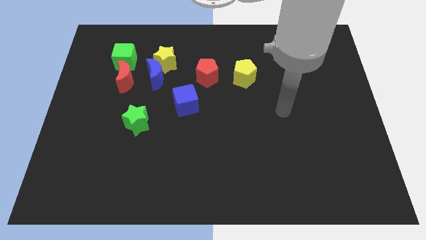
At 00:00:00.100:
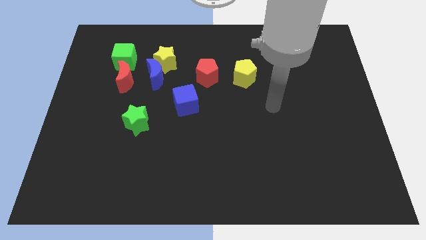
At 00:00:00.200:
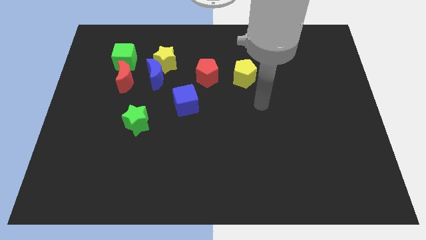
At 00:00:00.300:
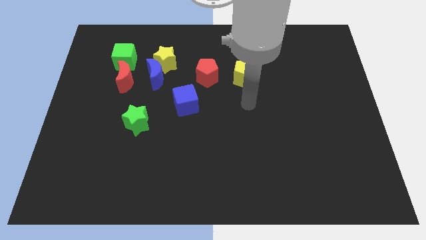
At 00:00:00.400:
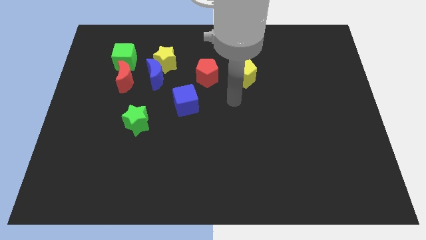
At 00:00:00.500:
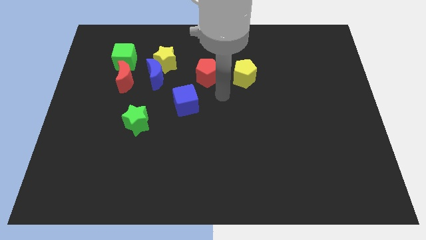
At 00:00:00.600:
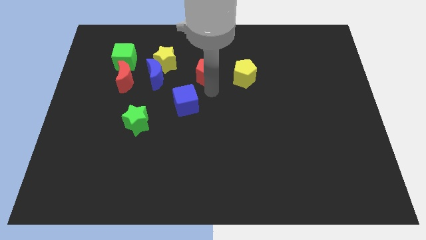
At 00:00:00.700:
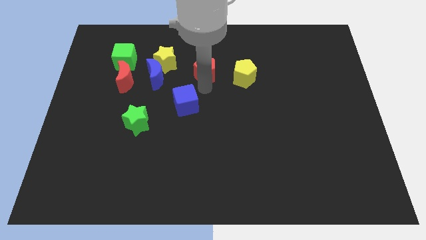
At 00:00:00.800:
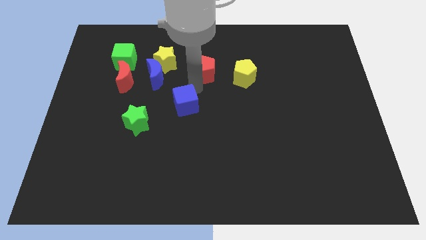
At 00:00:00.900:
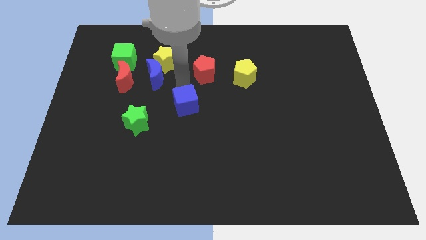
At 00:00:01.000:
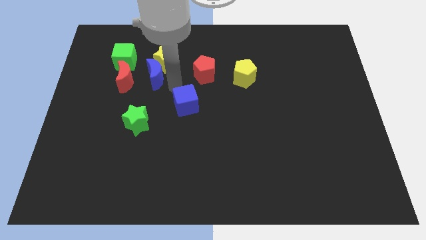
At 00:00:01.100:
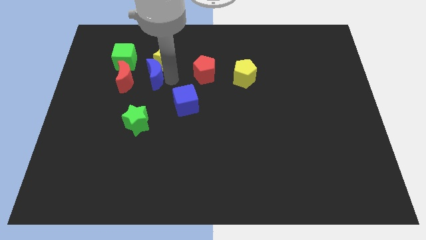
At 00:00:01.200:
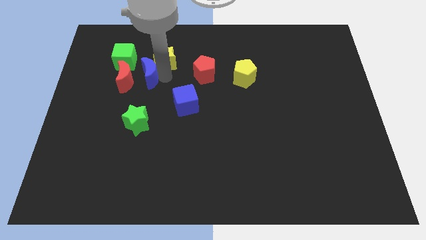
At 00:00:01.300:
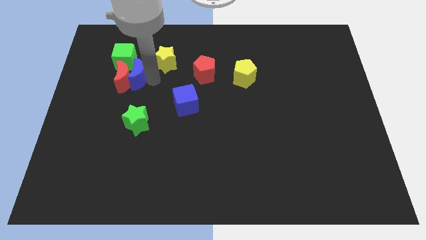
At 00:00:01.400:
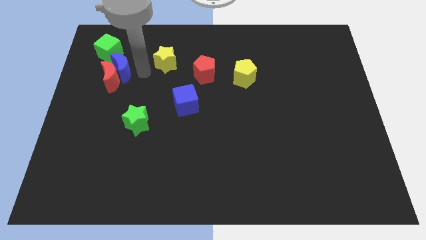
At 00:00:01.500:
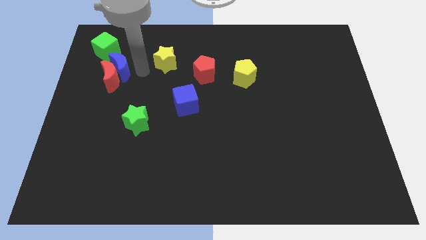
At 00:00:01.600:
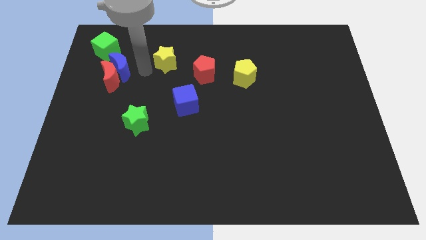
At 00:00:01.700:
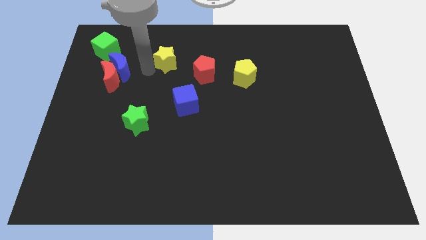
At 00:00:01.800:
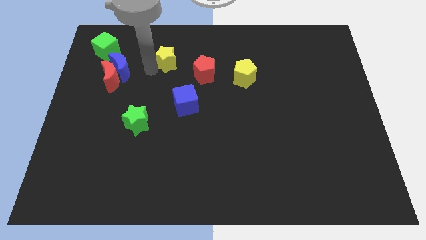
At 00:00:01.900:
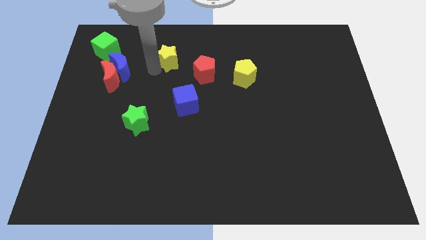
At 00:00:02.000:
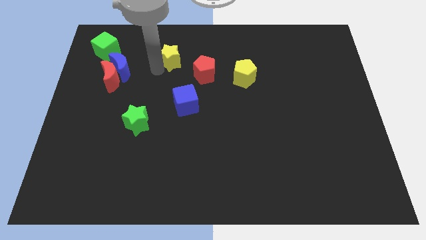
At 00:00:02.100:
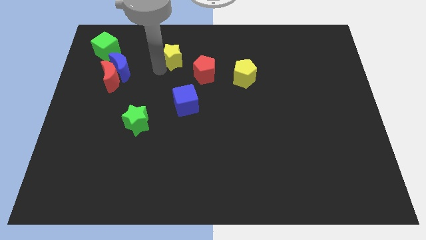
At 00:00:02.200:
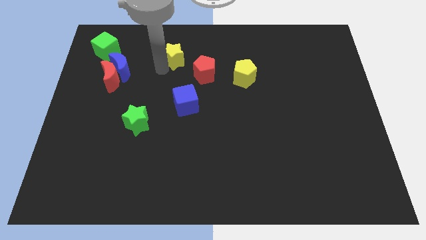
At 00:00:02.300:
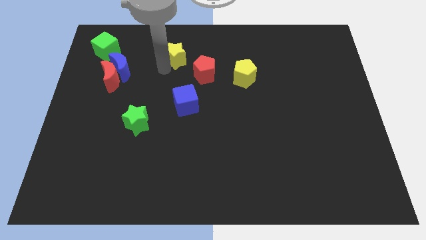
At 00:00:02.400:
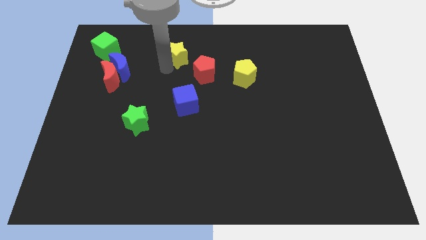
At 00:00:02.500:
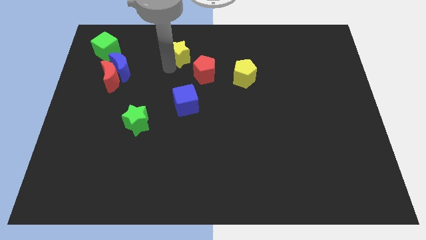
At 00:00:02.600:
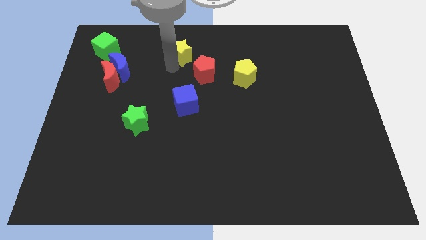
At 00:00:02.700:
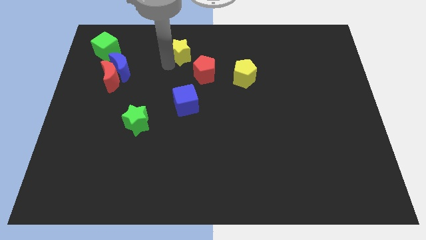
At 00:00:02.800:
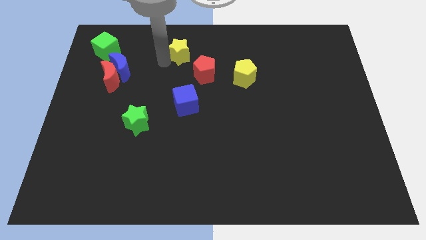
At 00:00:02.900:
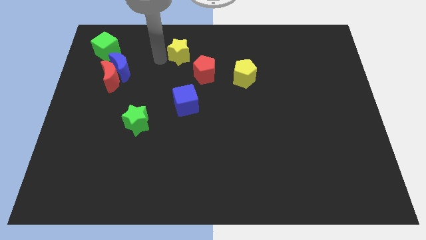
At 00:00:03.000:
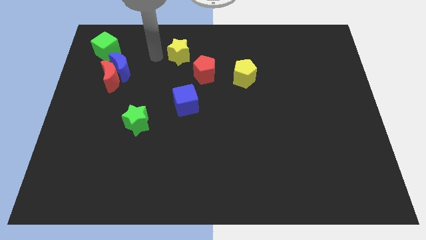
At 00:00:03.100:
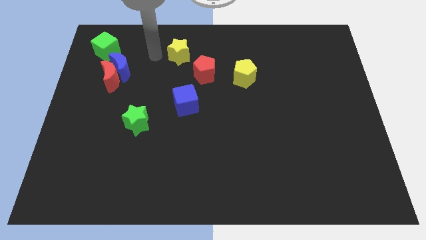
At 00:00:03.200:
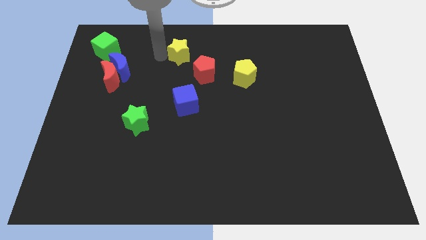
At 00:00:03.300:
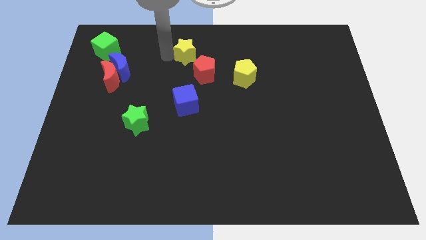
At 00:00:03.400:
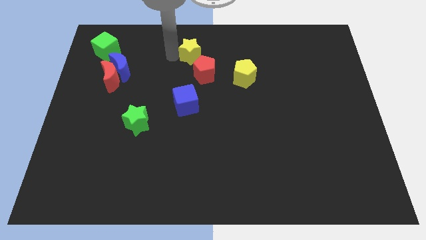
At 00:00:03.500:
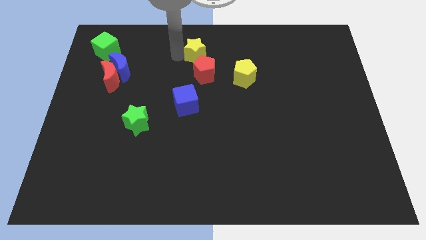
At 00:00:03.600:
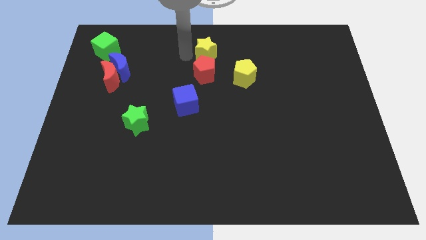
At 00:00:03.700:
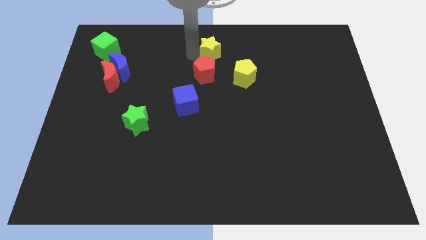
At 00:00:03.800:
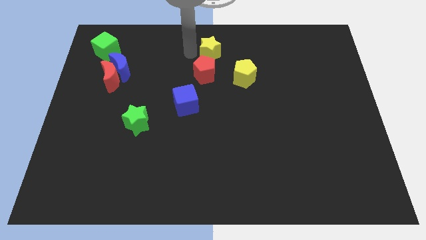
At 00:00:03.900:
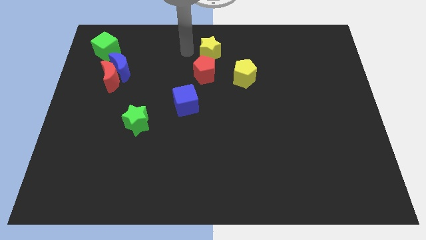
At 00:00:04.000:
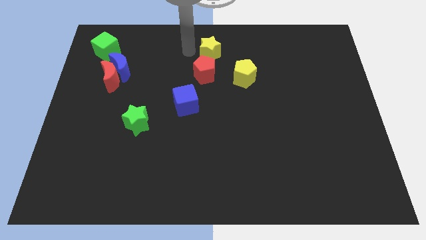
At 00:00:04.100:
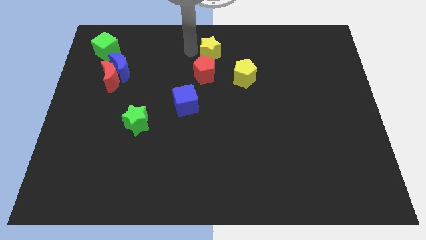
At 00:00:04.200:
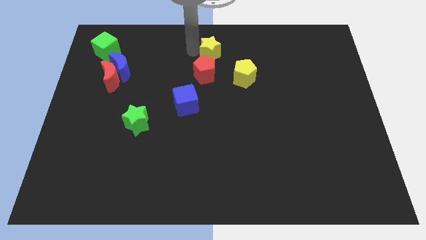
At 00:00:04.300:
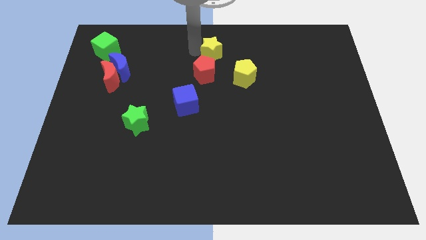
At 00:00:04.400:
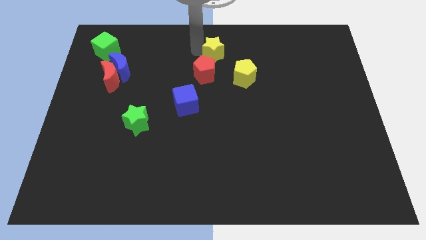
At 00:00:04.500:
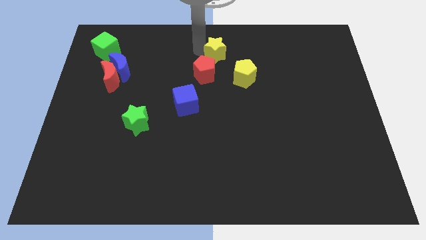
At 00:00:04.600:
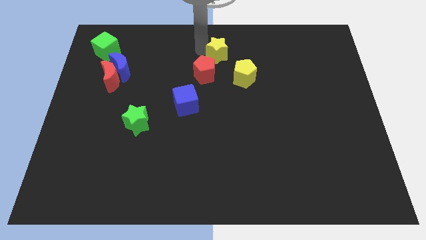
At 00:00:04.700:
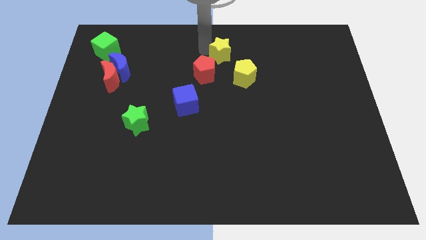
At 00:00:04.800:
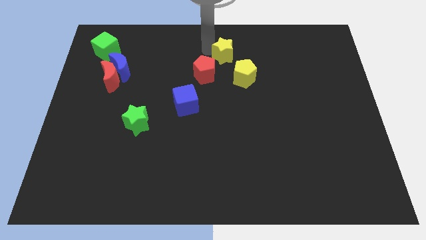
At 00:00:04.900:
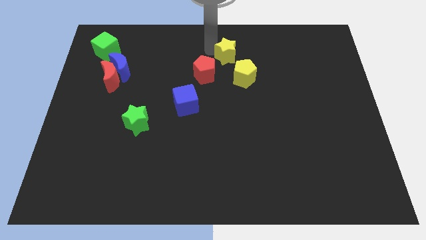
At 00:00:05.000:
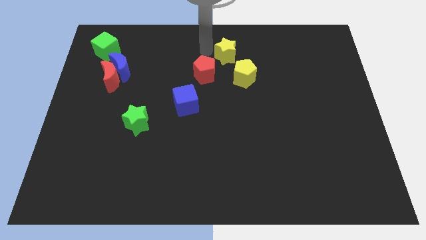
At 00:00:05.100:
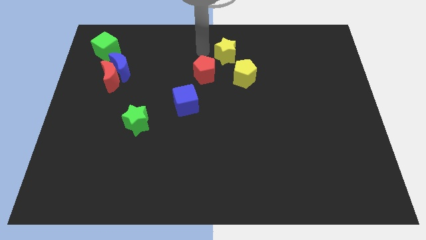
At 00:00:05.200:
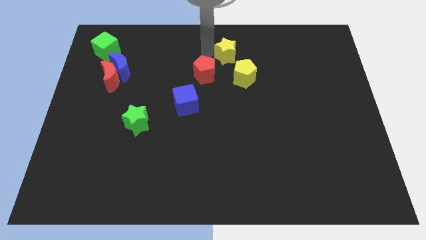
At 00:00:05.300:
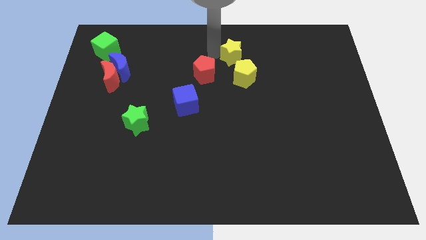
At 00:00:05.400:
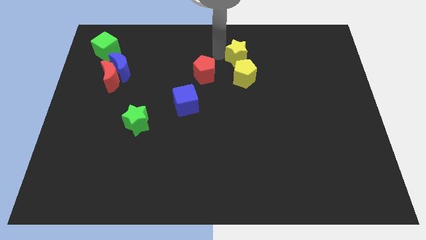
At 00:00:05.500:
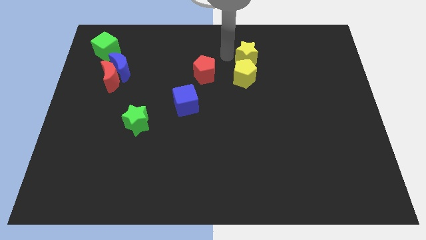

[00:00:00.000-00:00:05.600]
move the yellow star to the right

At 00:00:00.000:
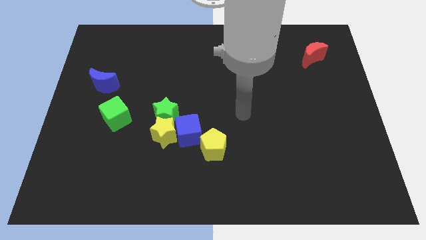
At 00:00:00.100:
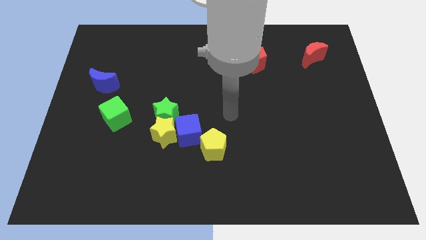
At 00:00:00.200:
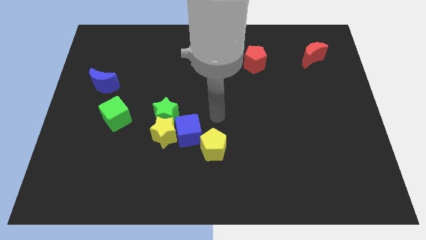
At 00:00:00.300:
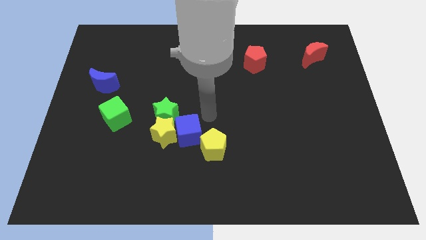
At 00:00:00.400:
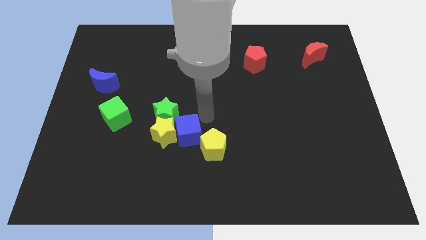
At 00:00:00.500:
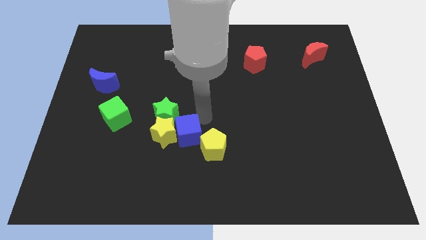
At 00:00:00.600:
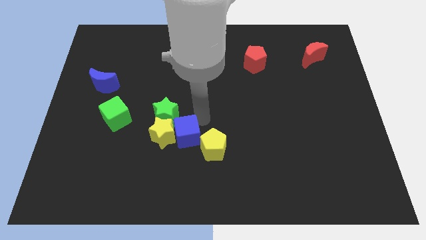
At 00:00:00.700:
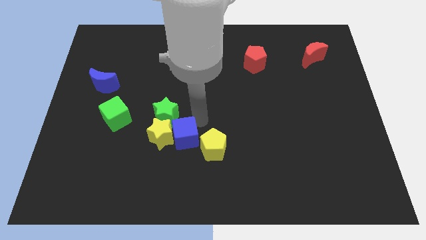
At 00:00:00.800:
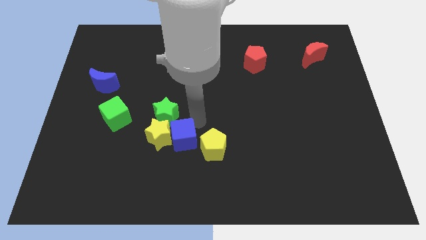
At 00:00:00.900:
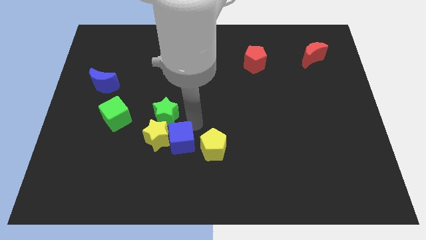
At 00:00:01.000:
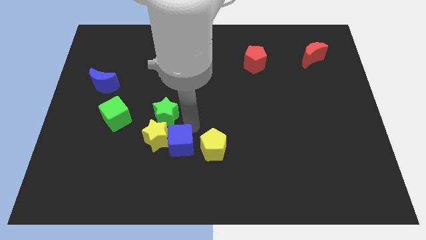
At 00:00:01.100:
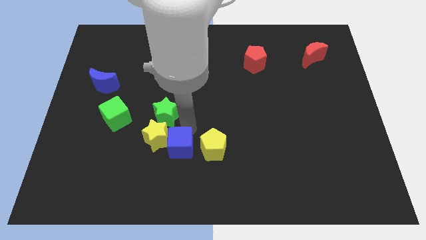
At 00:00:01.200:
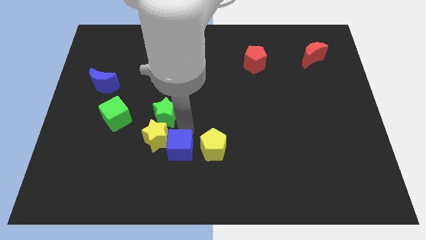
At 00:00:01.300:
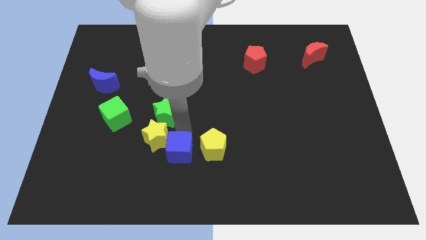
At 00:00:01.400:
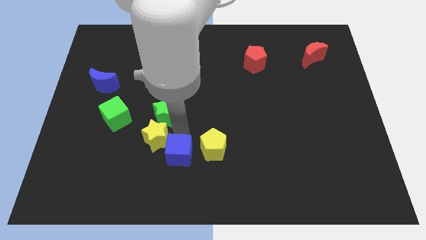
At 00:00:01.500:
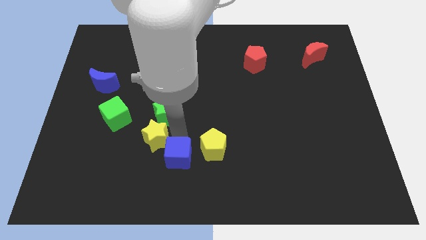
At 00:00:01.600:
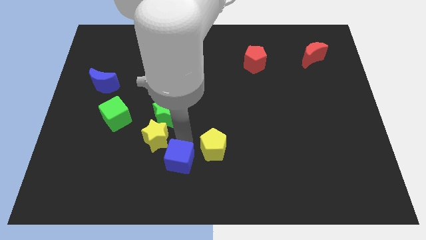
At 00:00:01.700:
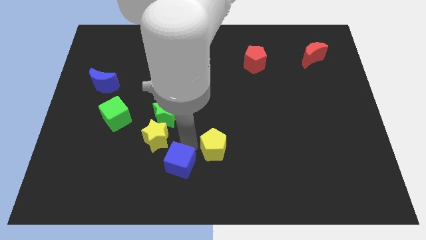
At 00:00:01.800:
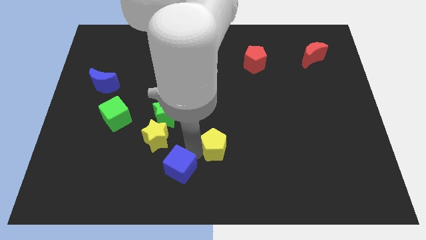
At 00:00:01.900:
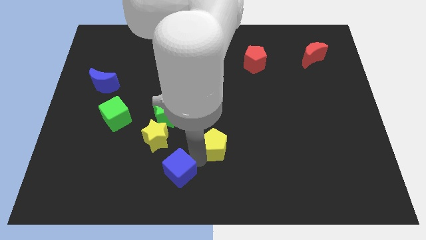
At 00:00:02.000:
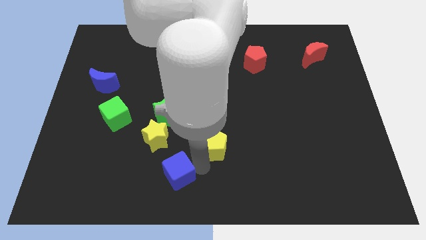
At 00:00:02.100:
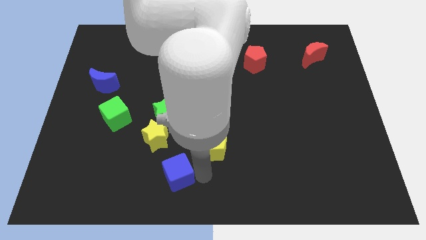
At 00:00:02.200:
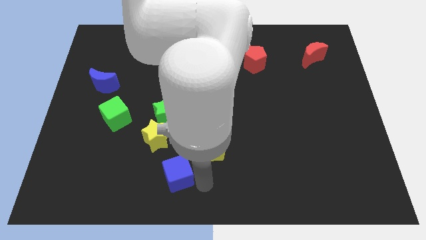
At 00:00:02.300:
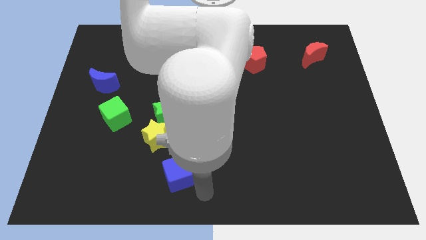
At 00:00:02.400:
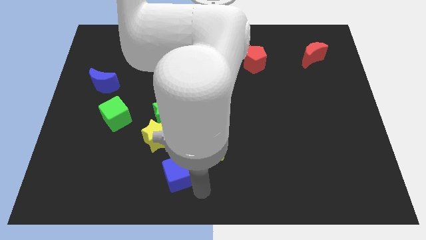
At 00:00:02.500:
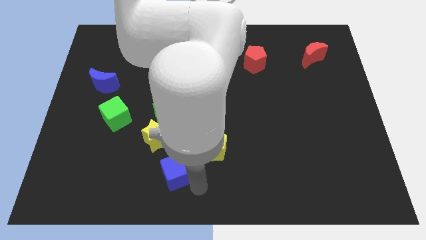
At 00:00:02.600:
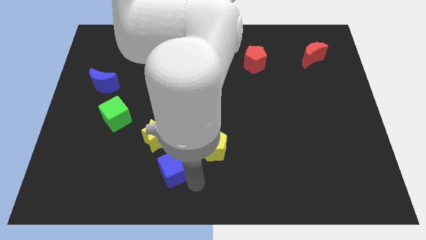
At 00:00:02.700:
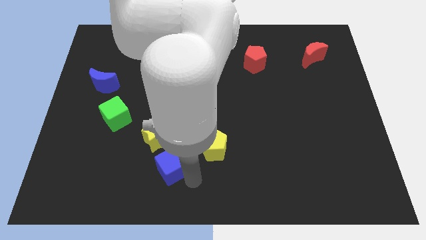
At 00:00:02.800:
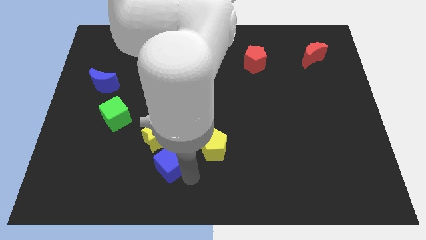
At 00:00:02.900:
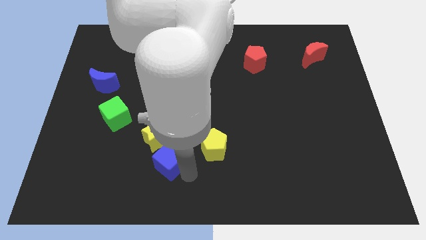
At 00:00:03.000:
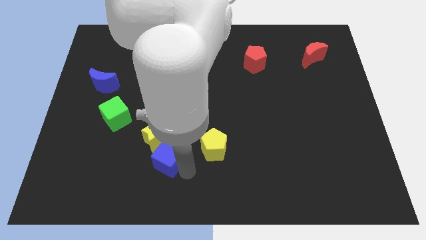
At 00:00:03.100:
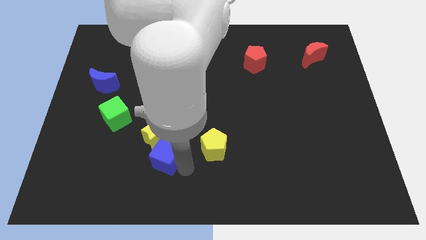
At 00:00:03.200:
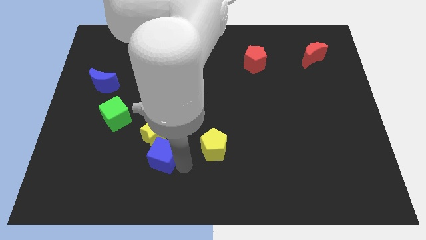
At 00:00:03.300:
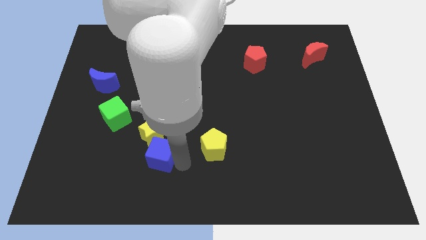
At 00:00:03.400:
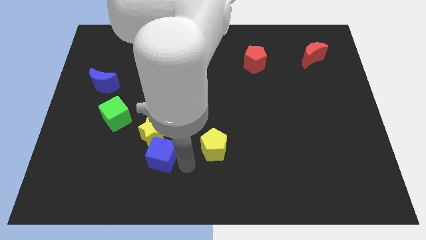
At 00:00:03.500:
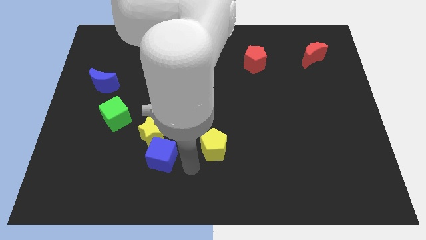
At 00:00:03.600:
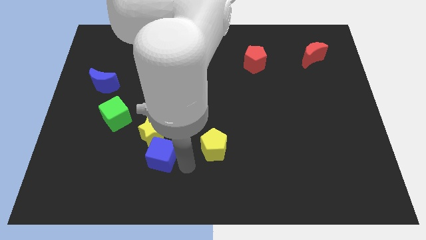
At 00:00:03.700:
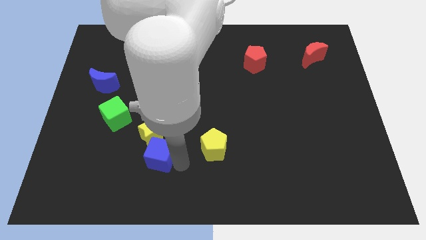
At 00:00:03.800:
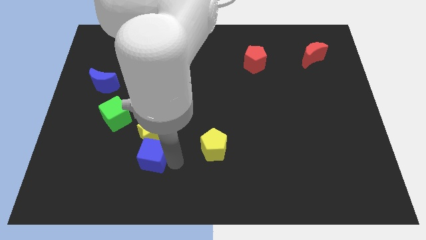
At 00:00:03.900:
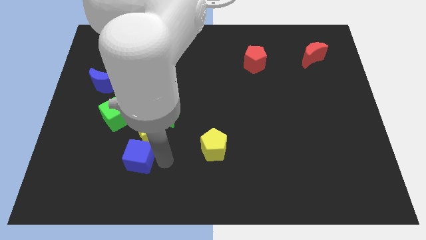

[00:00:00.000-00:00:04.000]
slide the blue cube somewhat to the left
